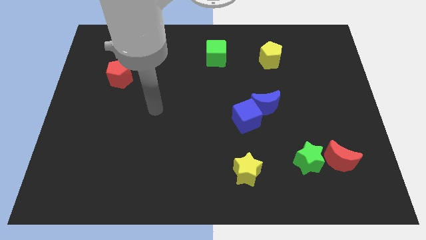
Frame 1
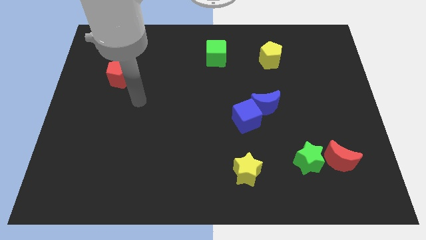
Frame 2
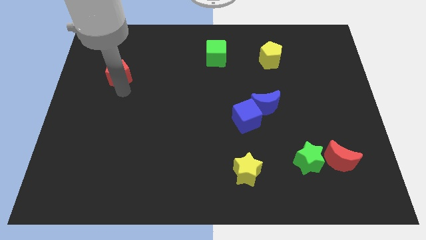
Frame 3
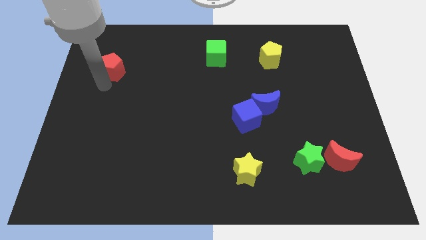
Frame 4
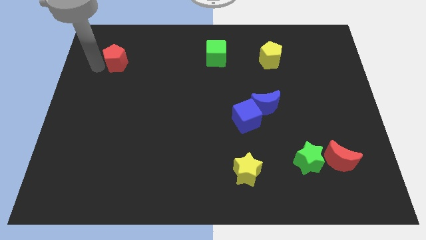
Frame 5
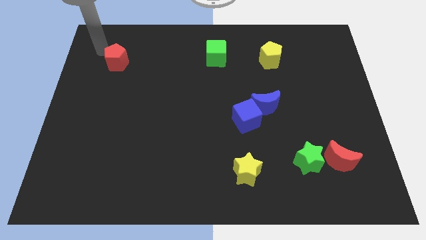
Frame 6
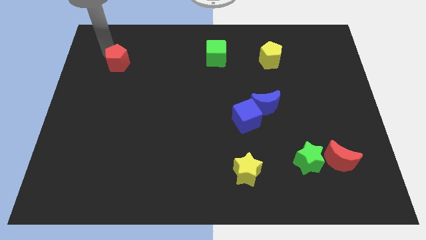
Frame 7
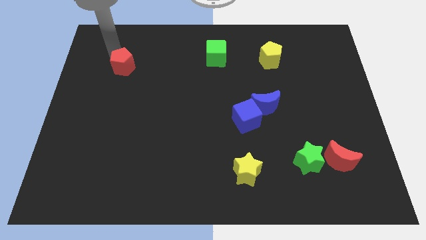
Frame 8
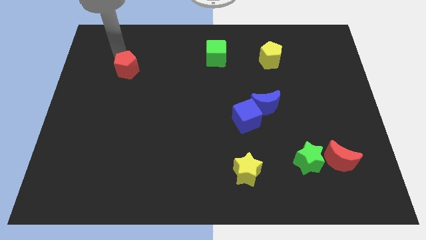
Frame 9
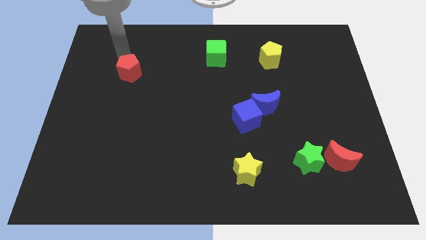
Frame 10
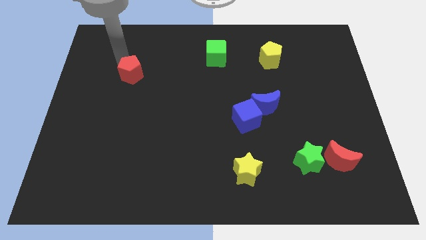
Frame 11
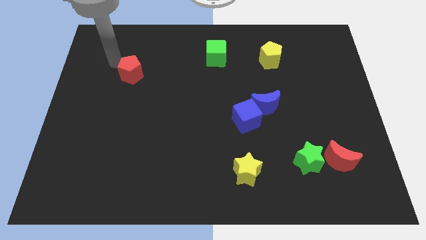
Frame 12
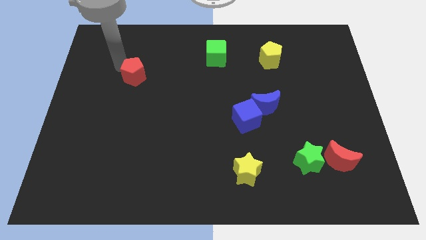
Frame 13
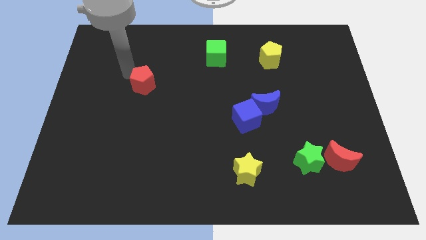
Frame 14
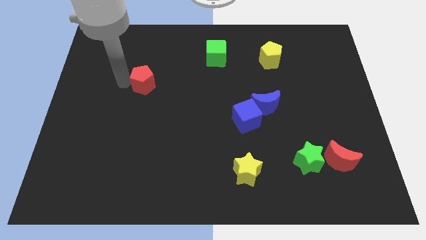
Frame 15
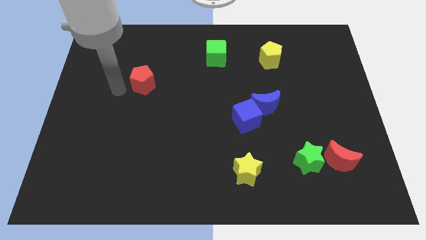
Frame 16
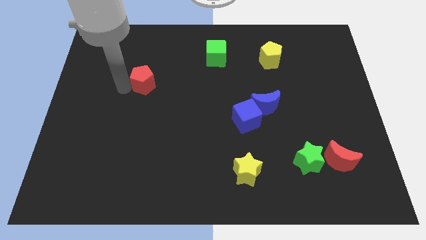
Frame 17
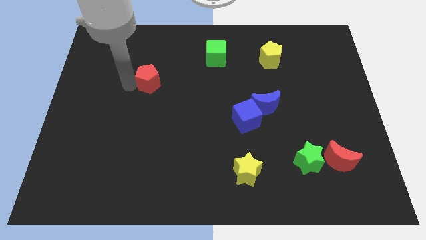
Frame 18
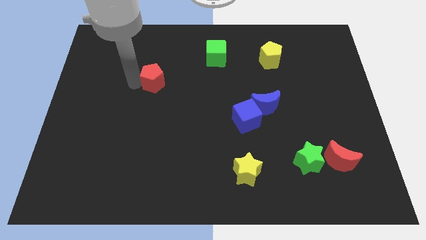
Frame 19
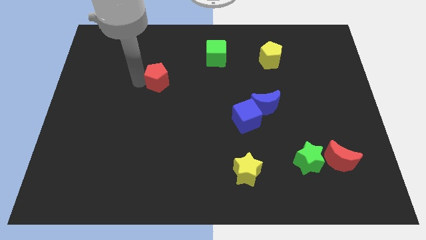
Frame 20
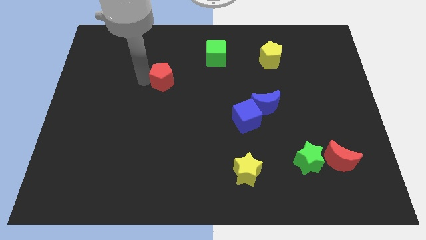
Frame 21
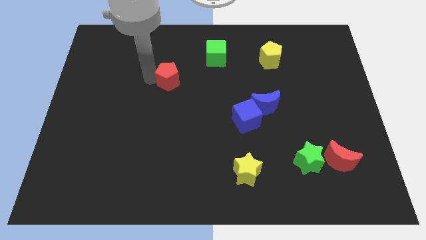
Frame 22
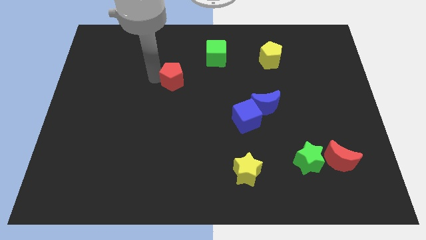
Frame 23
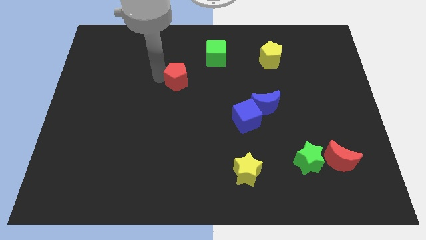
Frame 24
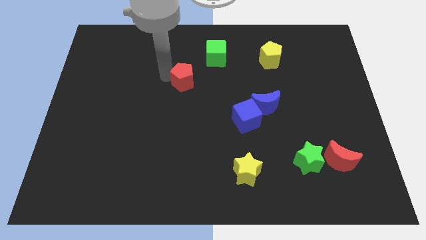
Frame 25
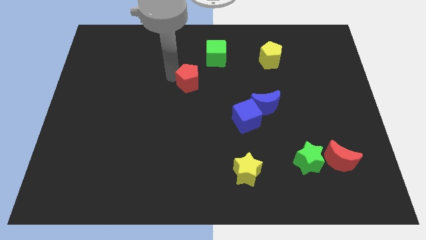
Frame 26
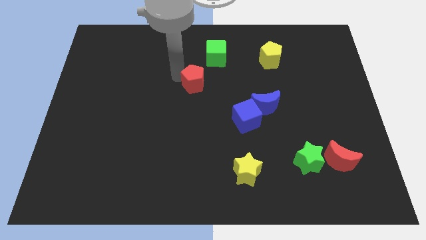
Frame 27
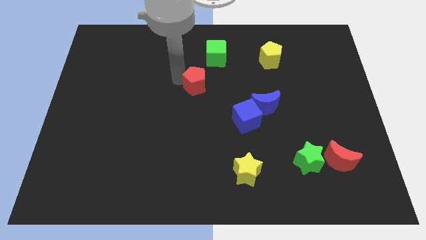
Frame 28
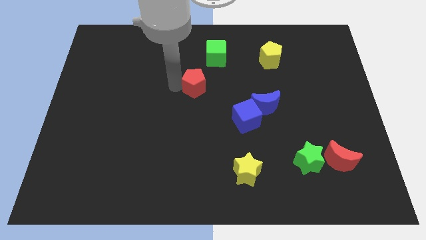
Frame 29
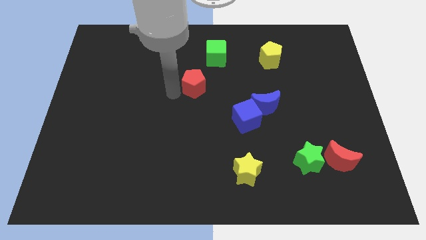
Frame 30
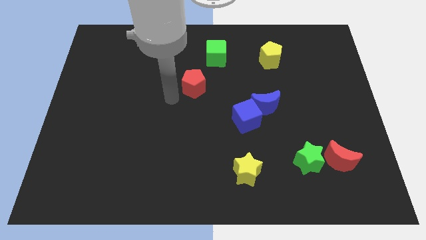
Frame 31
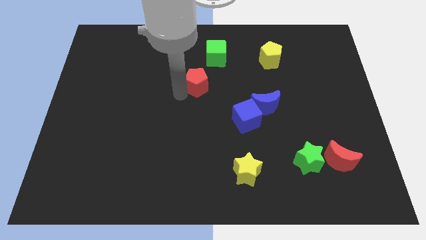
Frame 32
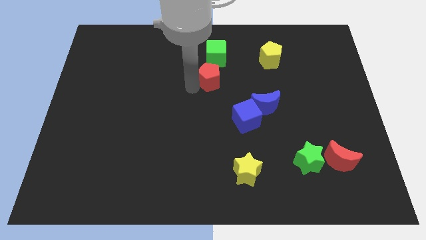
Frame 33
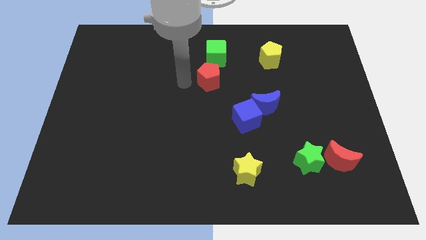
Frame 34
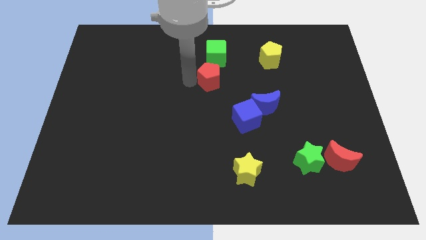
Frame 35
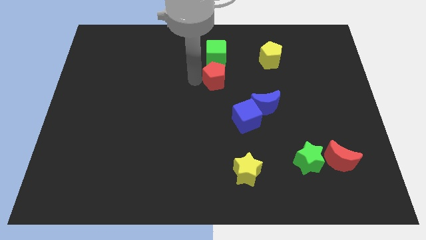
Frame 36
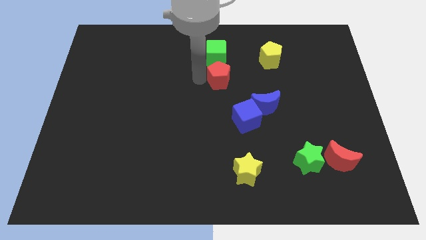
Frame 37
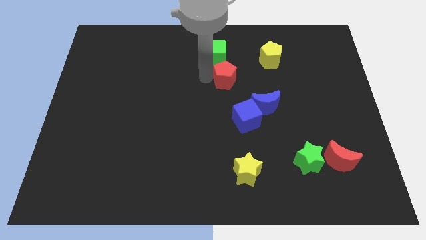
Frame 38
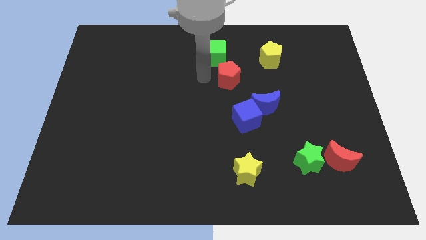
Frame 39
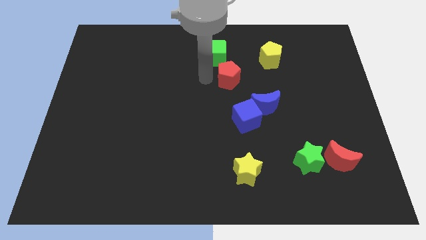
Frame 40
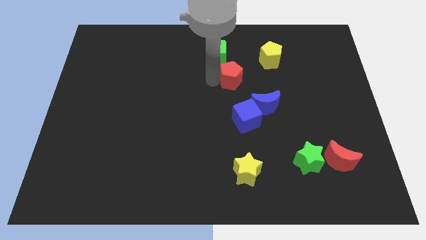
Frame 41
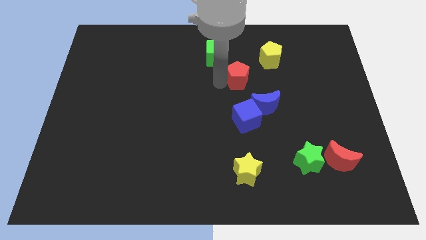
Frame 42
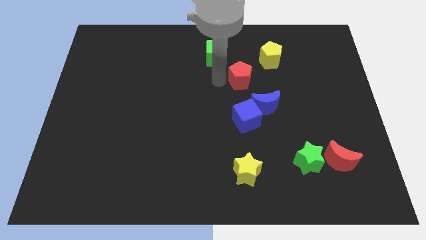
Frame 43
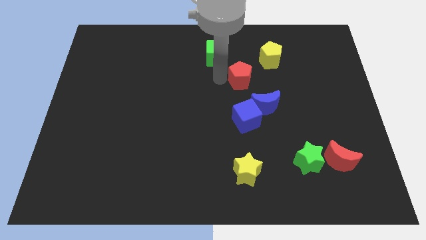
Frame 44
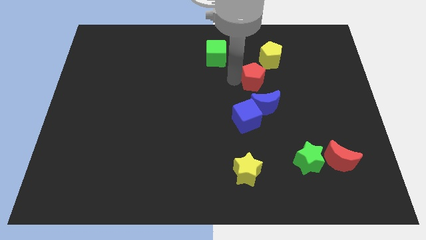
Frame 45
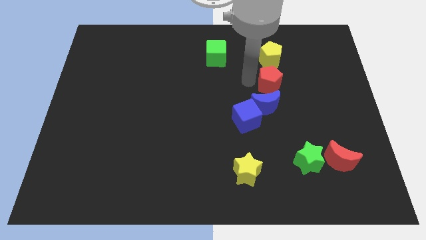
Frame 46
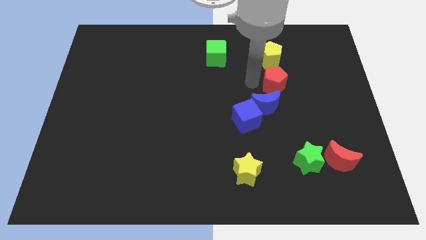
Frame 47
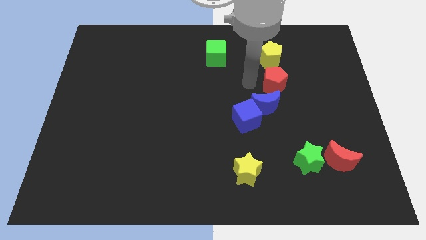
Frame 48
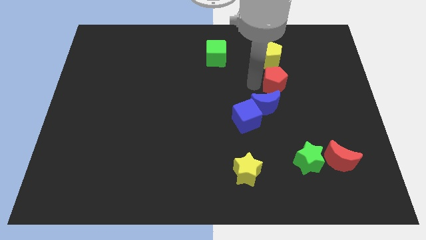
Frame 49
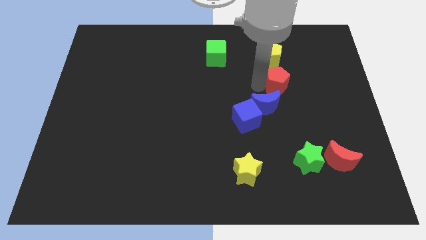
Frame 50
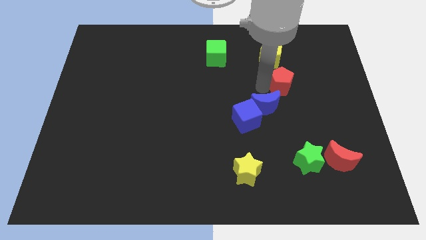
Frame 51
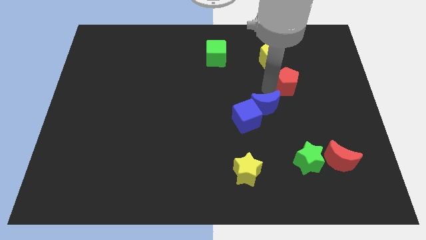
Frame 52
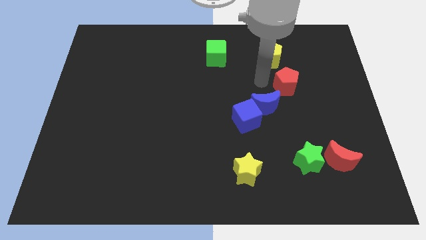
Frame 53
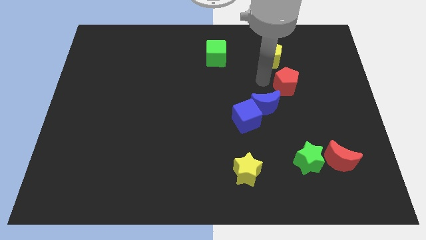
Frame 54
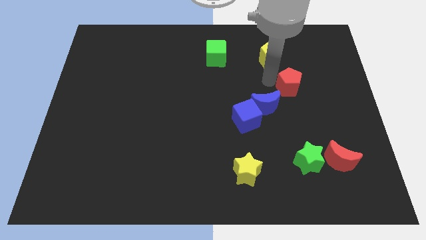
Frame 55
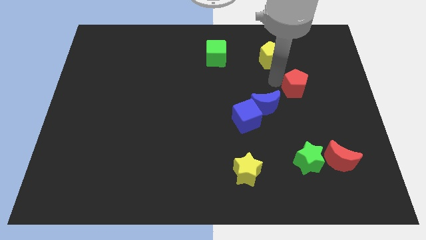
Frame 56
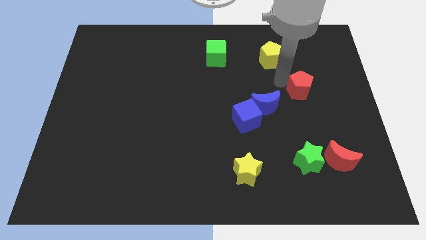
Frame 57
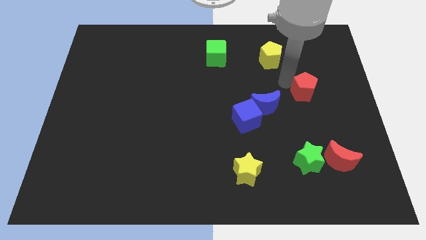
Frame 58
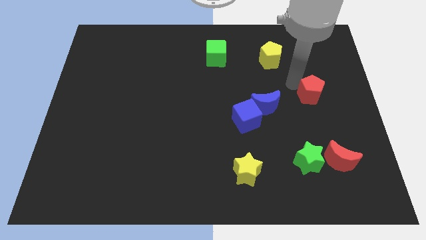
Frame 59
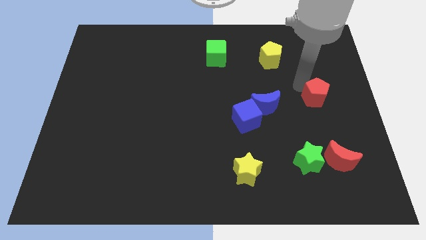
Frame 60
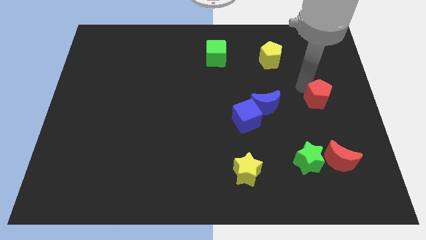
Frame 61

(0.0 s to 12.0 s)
move the red pentagon to the right side of the board
